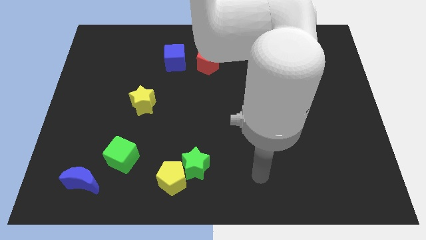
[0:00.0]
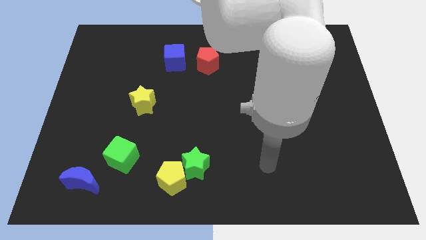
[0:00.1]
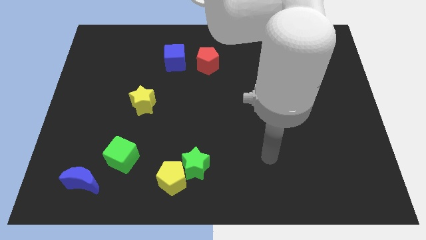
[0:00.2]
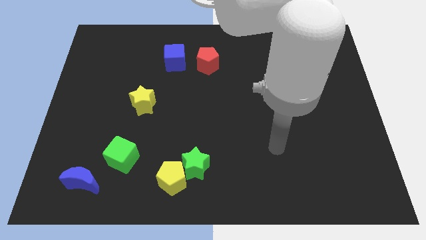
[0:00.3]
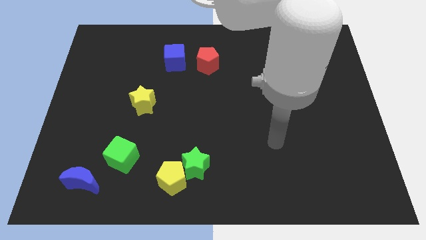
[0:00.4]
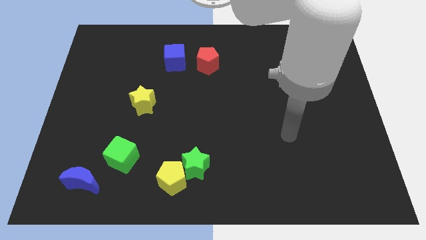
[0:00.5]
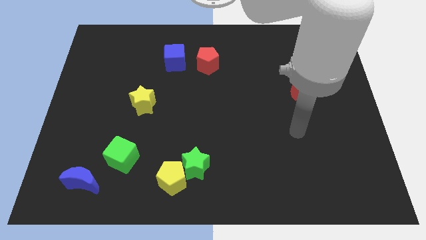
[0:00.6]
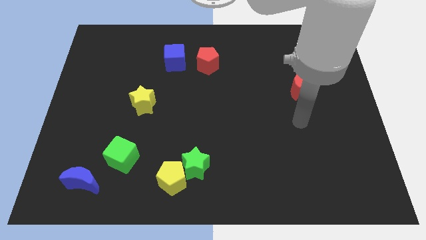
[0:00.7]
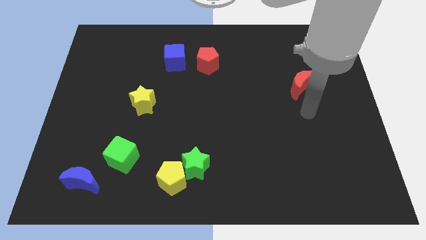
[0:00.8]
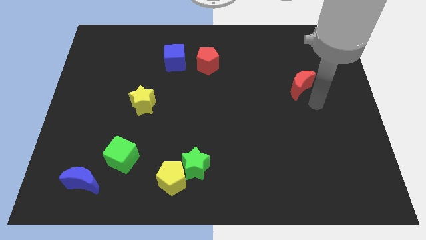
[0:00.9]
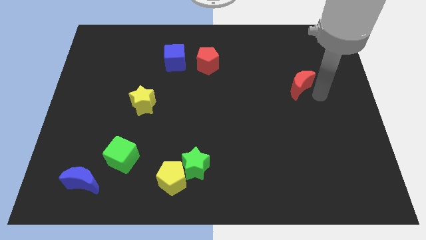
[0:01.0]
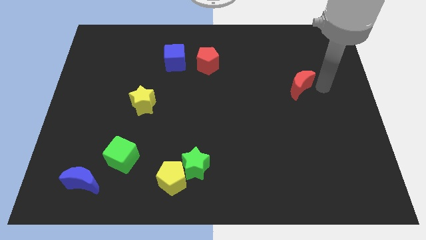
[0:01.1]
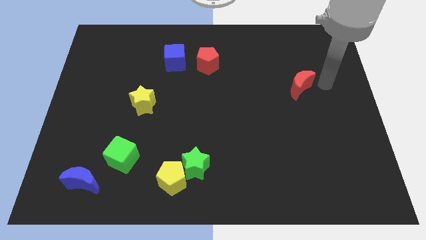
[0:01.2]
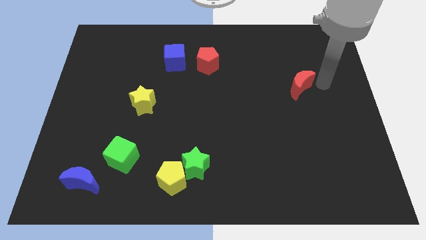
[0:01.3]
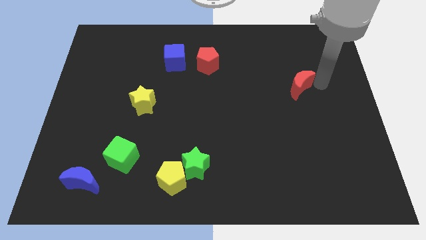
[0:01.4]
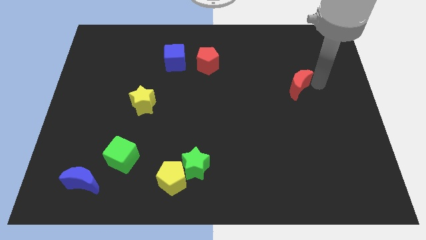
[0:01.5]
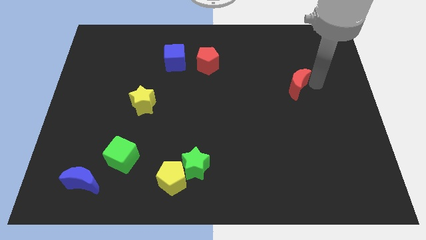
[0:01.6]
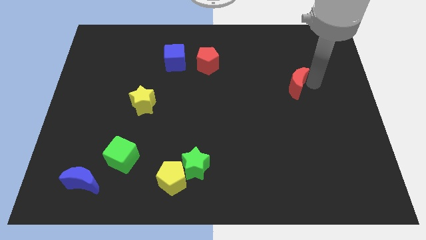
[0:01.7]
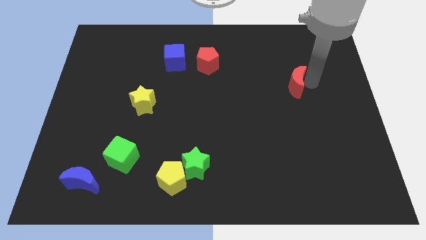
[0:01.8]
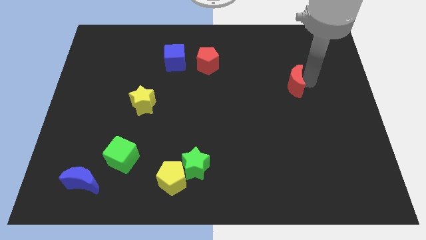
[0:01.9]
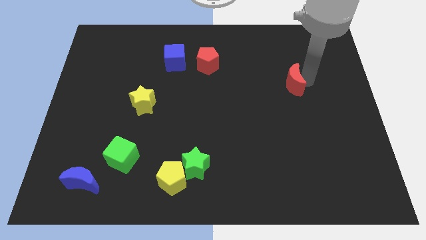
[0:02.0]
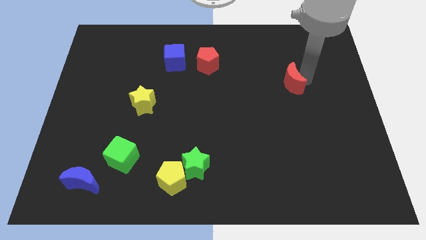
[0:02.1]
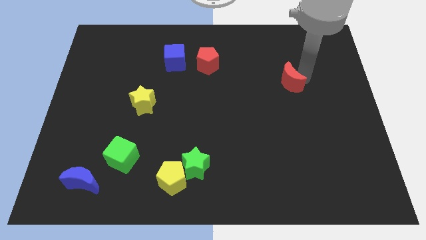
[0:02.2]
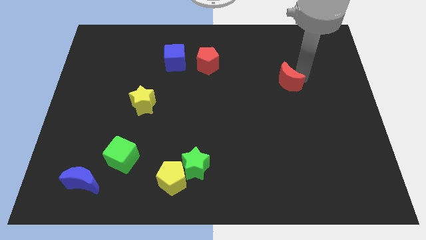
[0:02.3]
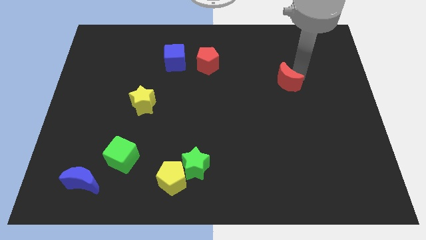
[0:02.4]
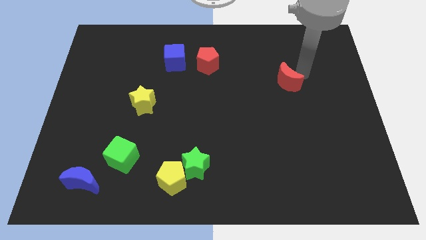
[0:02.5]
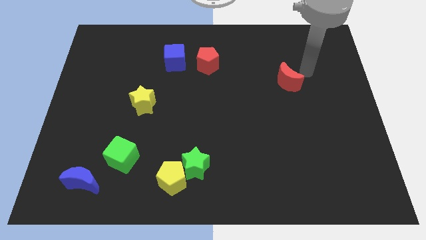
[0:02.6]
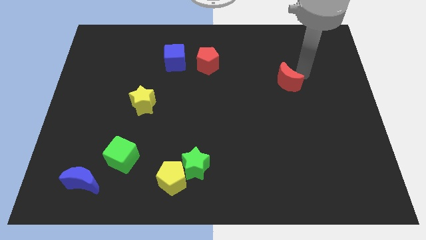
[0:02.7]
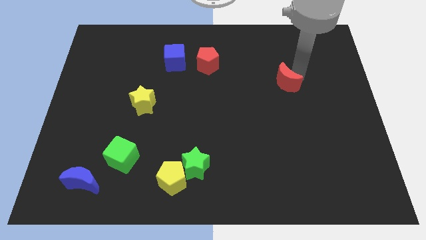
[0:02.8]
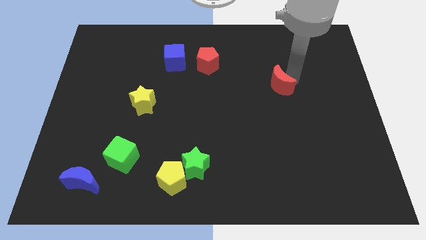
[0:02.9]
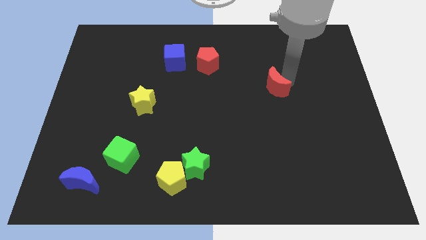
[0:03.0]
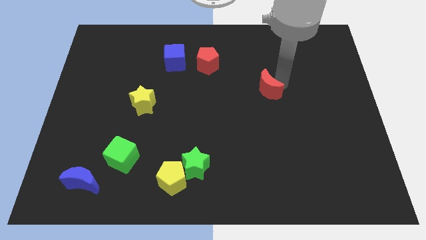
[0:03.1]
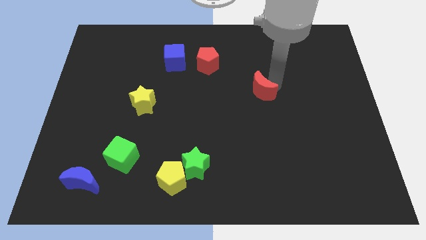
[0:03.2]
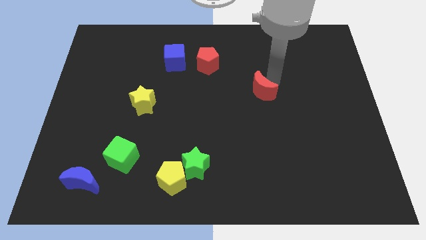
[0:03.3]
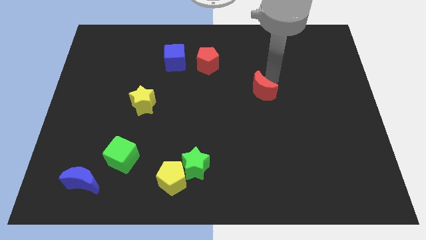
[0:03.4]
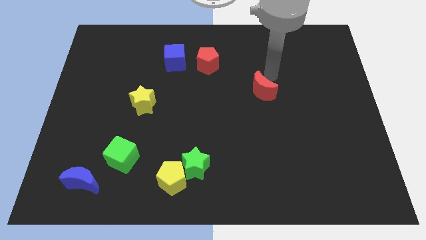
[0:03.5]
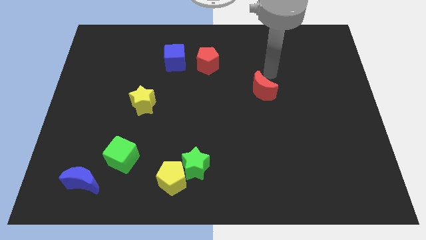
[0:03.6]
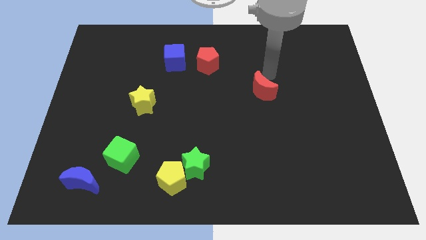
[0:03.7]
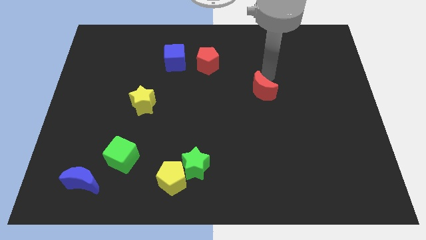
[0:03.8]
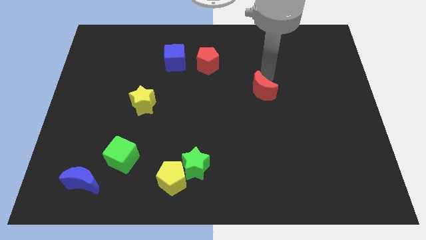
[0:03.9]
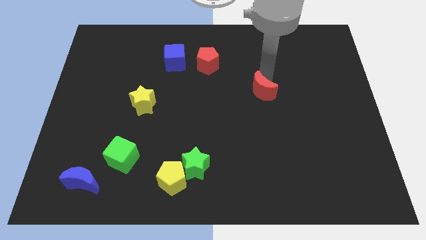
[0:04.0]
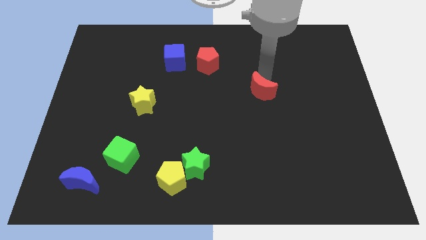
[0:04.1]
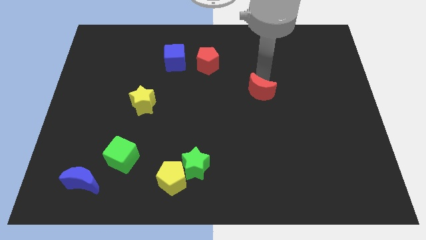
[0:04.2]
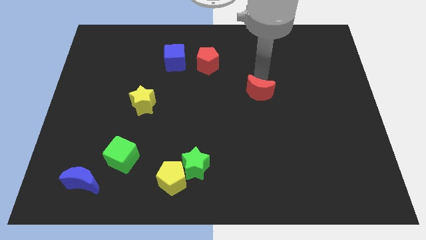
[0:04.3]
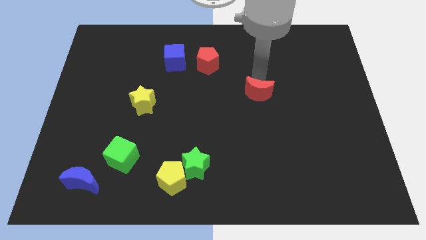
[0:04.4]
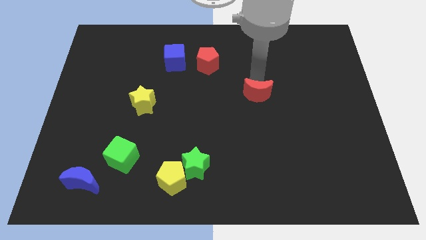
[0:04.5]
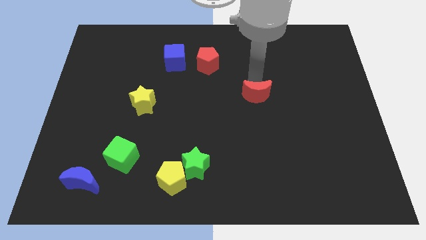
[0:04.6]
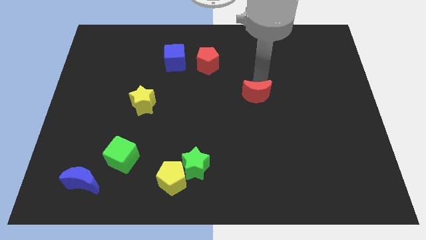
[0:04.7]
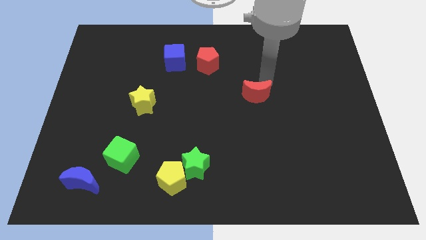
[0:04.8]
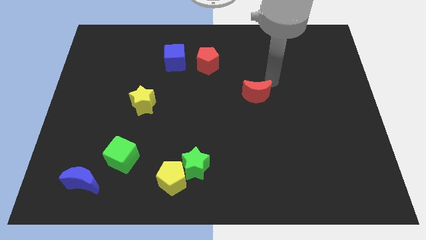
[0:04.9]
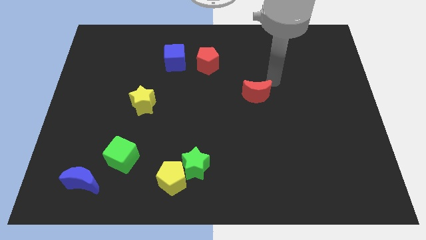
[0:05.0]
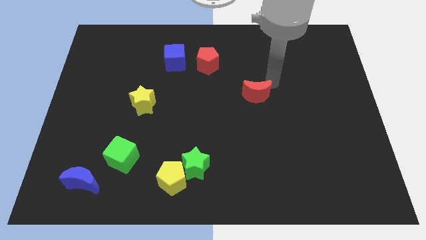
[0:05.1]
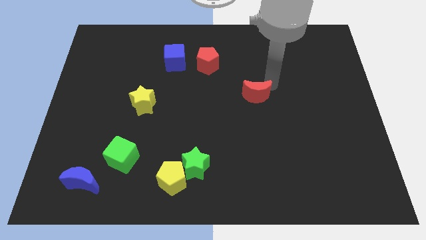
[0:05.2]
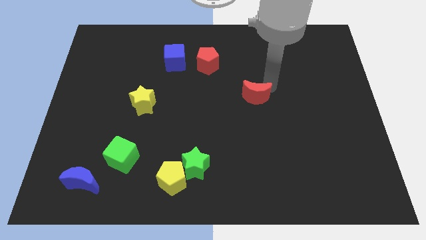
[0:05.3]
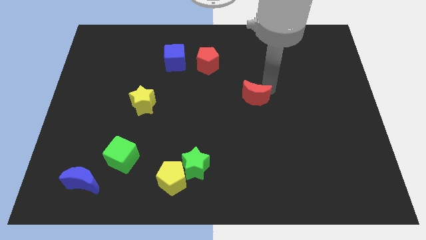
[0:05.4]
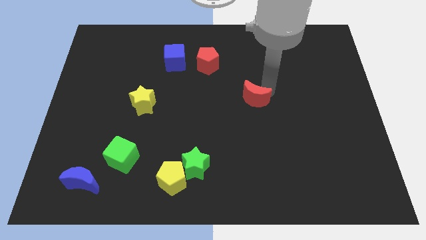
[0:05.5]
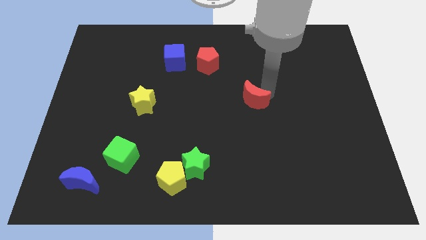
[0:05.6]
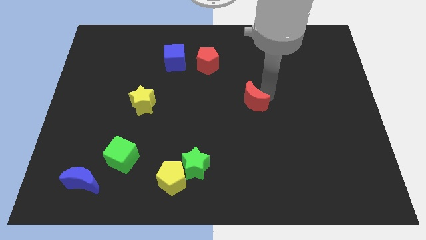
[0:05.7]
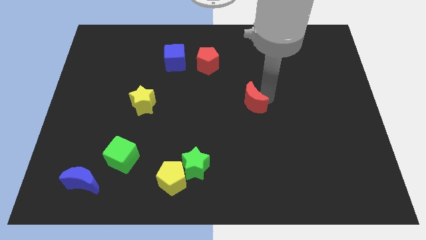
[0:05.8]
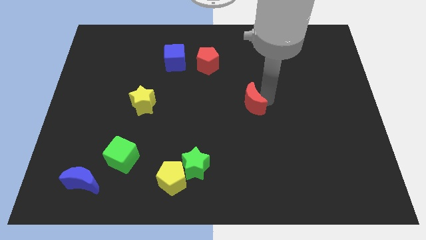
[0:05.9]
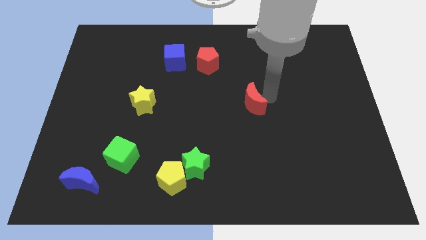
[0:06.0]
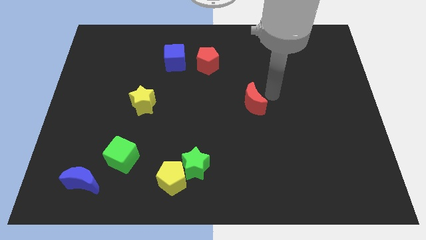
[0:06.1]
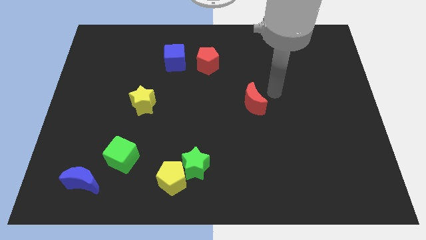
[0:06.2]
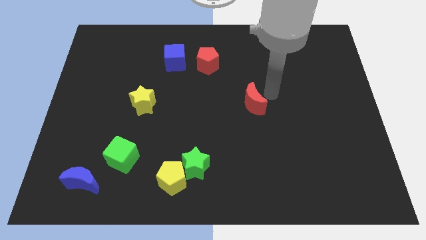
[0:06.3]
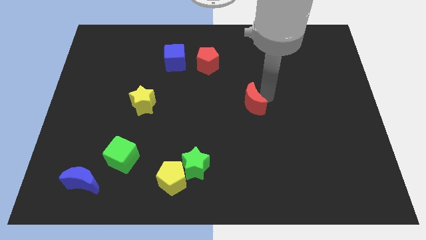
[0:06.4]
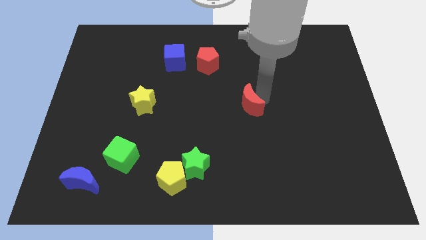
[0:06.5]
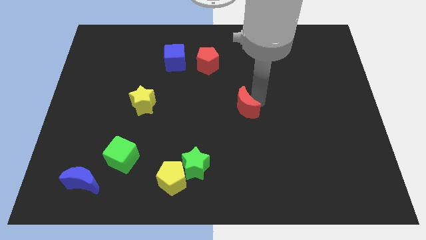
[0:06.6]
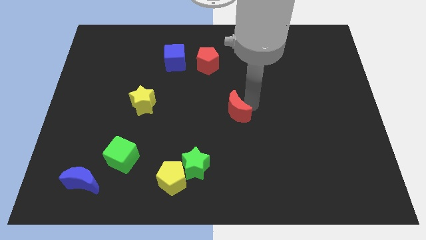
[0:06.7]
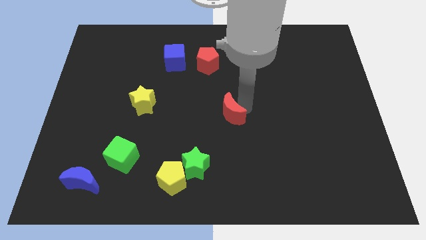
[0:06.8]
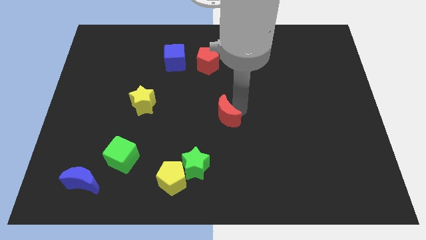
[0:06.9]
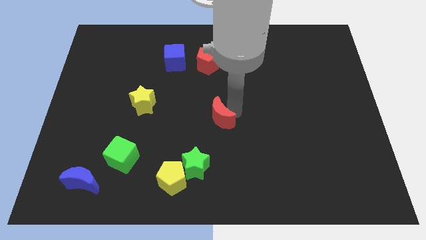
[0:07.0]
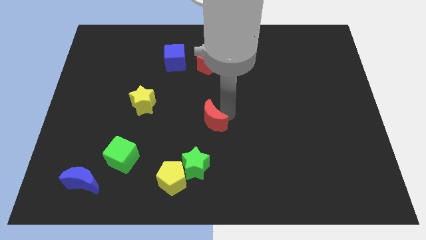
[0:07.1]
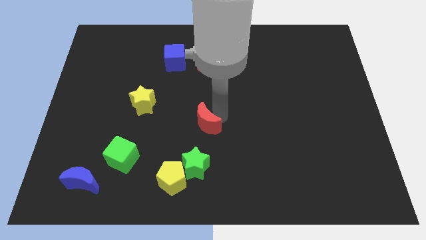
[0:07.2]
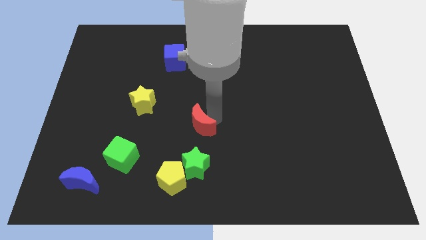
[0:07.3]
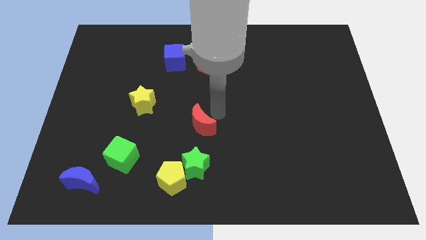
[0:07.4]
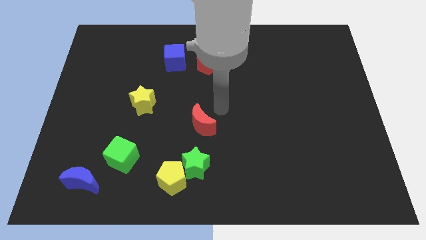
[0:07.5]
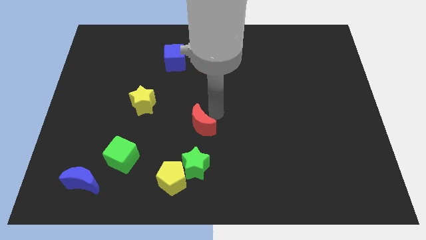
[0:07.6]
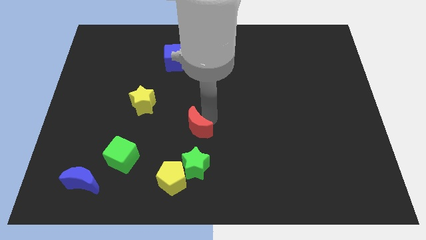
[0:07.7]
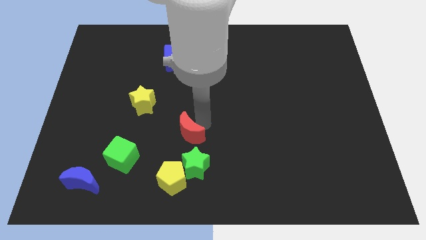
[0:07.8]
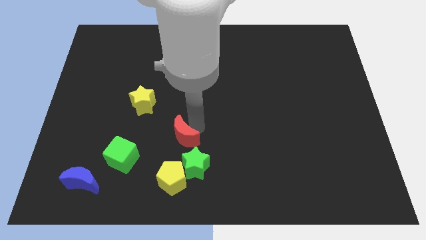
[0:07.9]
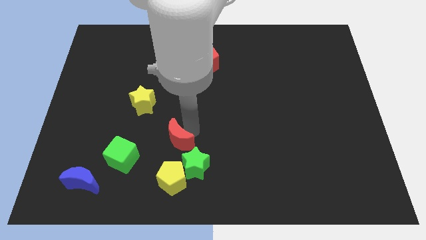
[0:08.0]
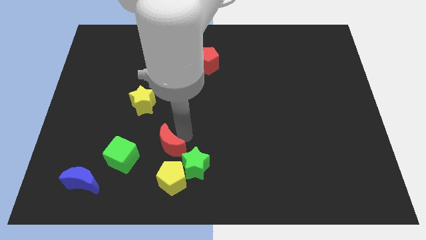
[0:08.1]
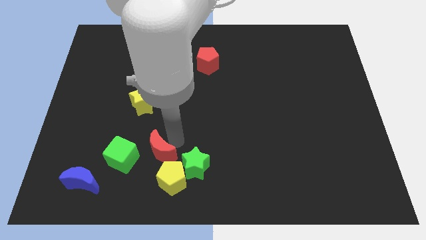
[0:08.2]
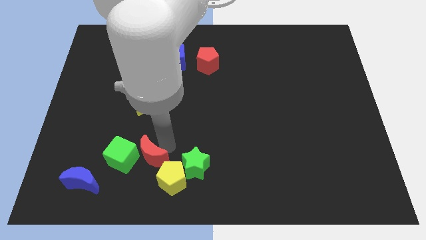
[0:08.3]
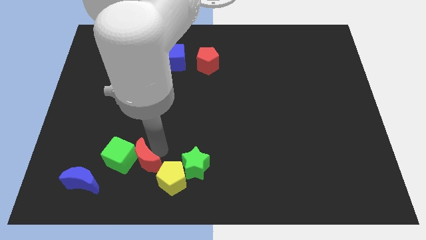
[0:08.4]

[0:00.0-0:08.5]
push the red moon right of the blue moon
